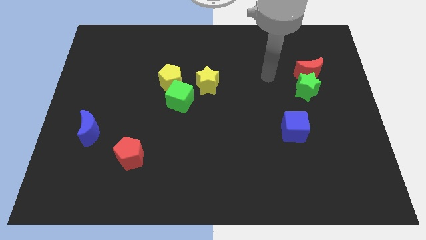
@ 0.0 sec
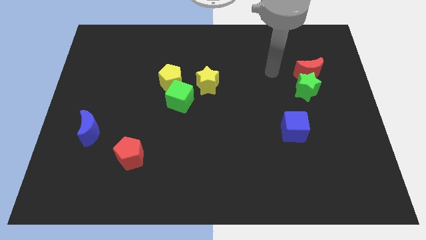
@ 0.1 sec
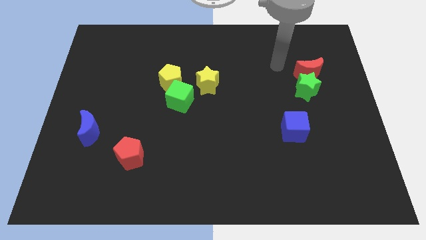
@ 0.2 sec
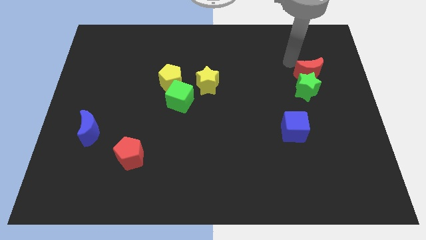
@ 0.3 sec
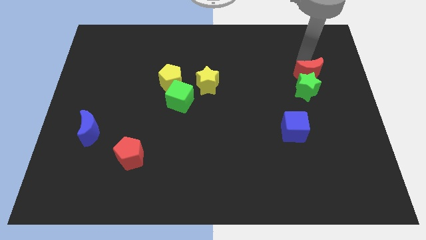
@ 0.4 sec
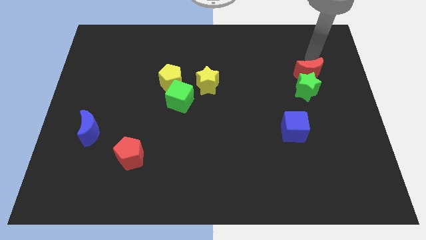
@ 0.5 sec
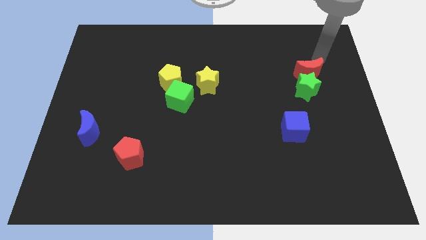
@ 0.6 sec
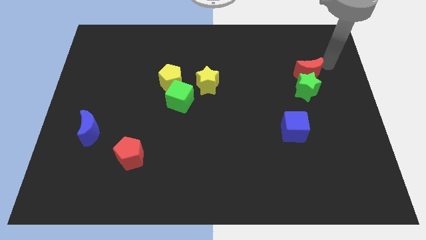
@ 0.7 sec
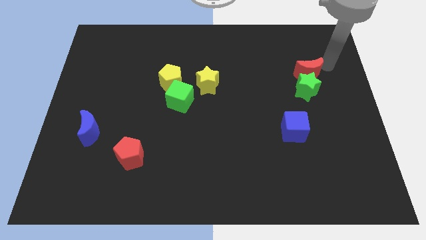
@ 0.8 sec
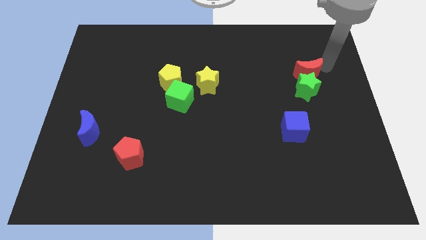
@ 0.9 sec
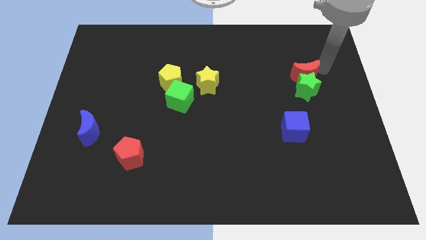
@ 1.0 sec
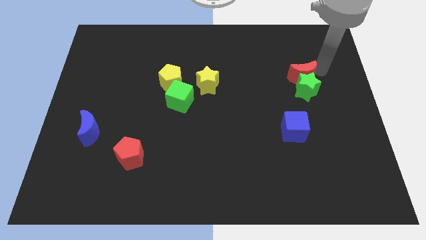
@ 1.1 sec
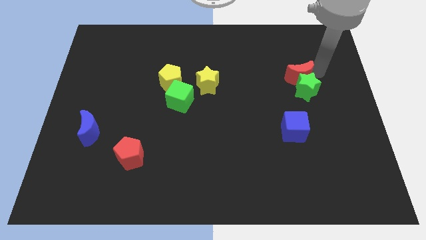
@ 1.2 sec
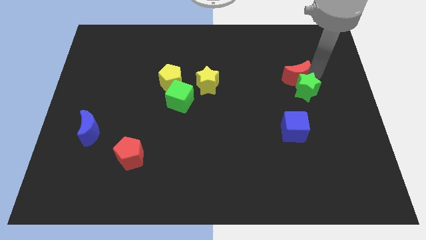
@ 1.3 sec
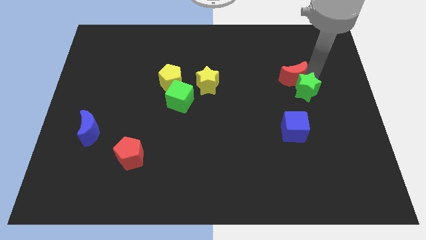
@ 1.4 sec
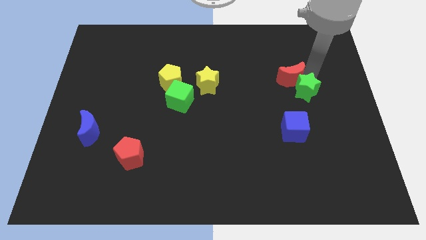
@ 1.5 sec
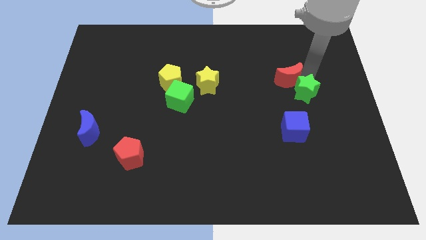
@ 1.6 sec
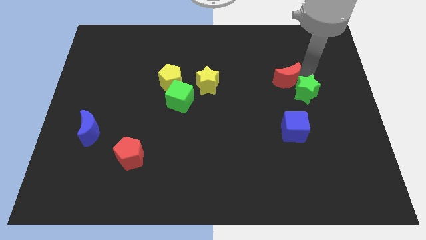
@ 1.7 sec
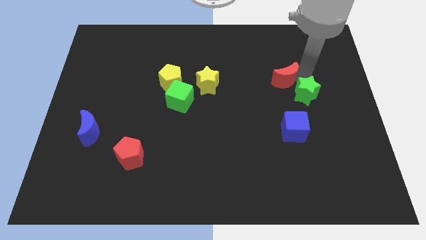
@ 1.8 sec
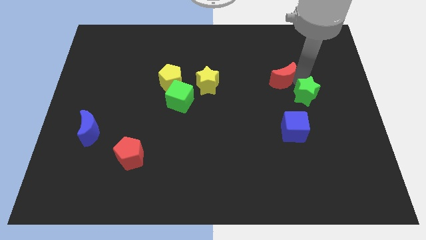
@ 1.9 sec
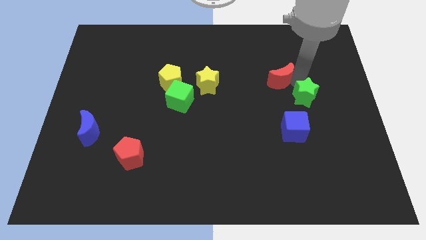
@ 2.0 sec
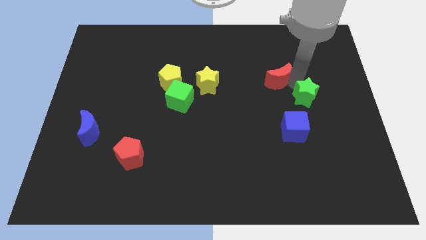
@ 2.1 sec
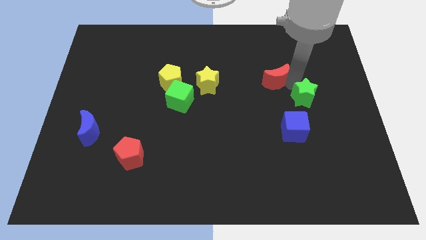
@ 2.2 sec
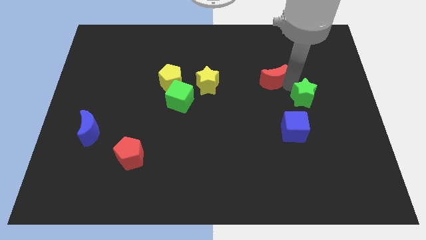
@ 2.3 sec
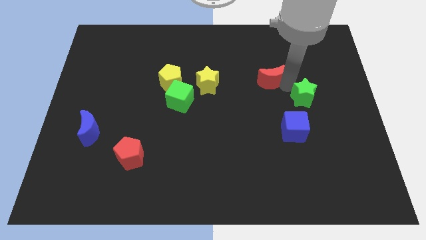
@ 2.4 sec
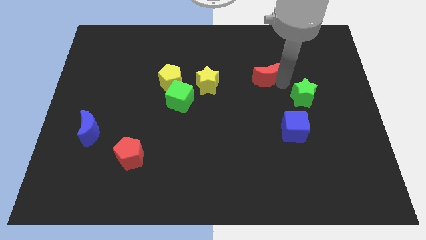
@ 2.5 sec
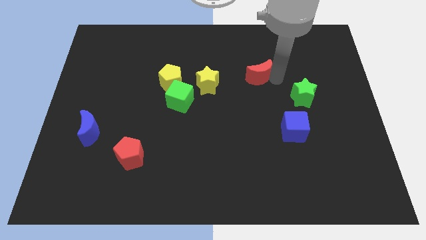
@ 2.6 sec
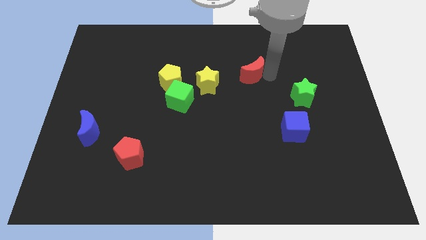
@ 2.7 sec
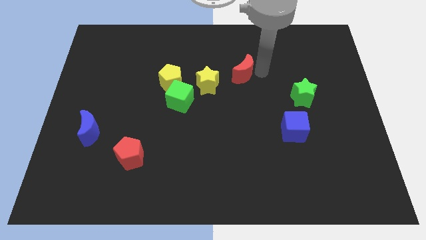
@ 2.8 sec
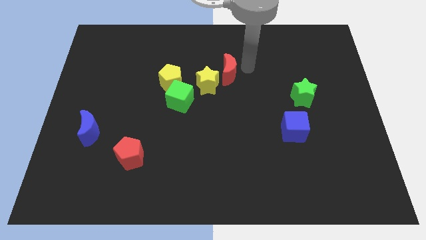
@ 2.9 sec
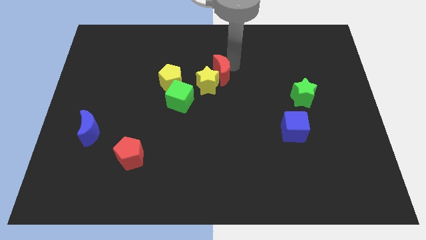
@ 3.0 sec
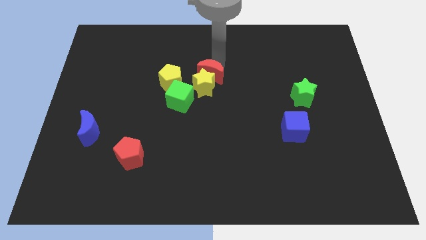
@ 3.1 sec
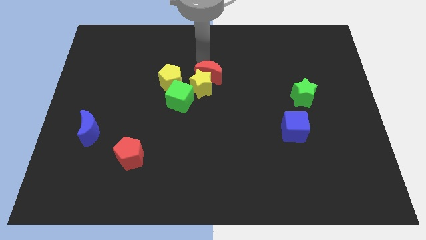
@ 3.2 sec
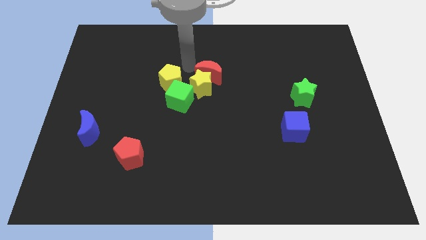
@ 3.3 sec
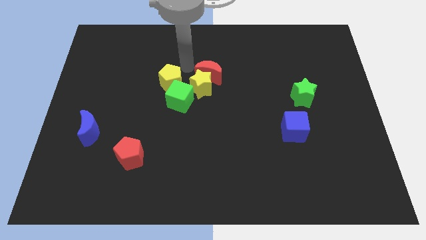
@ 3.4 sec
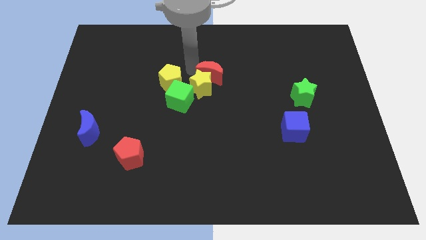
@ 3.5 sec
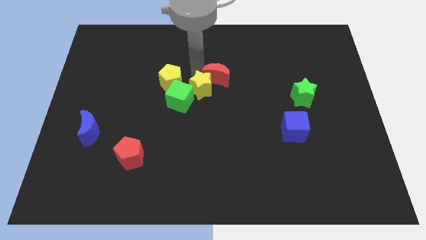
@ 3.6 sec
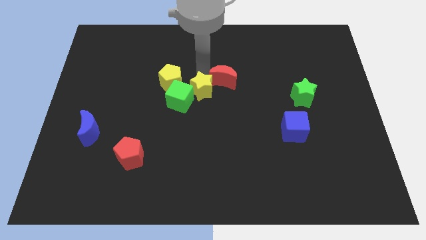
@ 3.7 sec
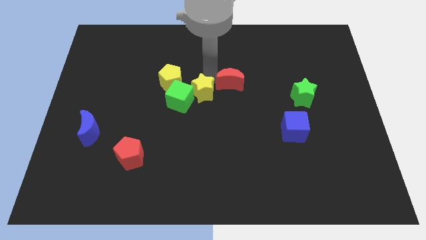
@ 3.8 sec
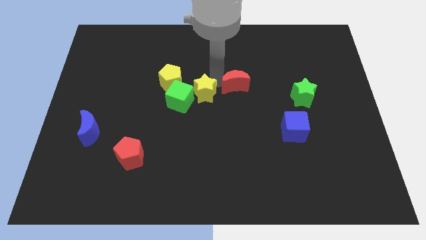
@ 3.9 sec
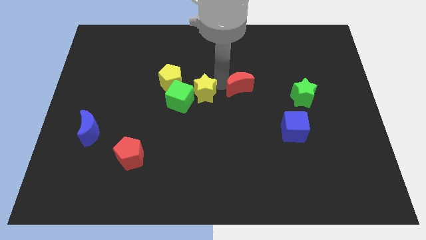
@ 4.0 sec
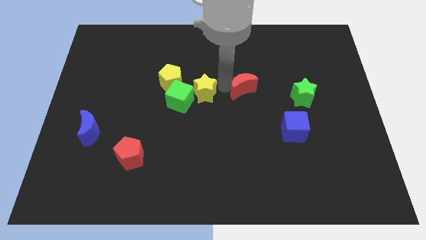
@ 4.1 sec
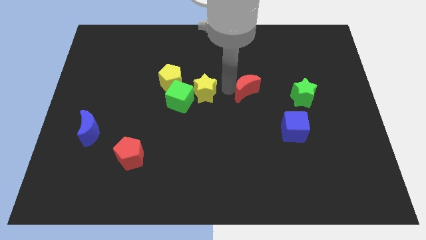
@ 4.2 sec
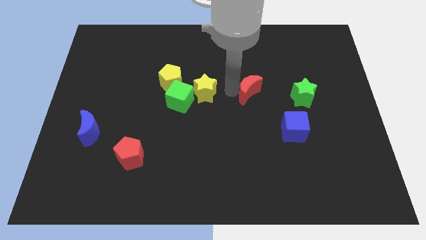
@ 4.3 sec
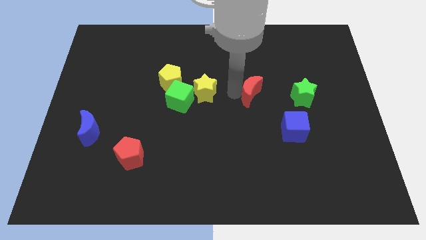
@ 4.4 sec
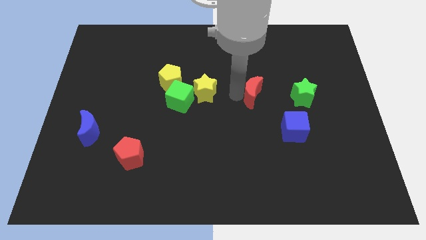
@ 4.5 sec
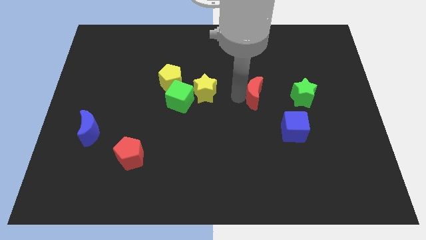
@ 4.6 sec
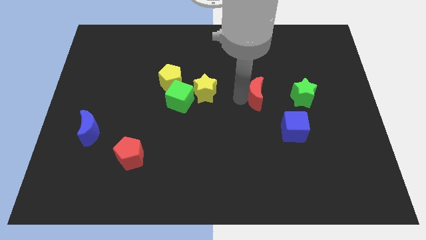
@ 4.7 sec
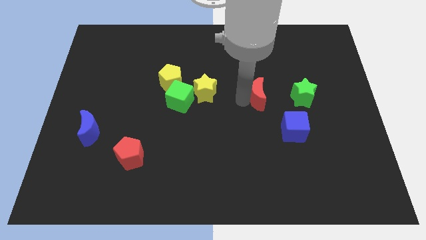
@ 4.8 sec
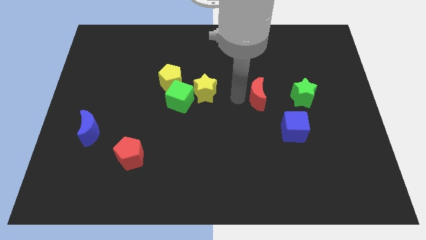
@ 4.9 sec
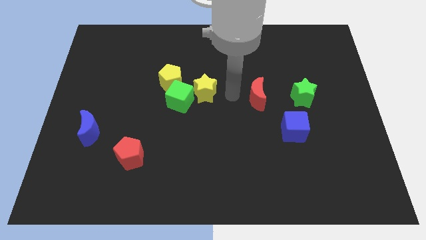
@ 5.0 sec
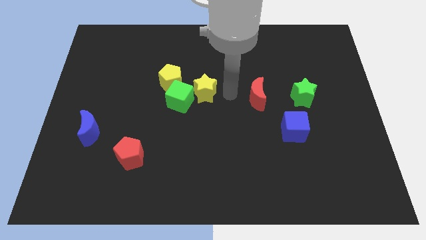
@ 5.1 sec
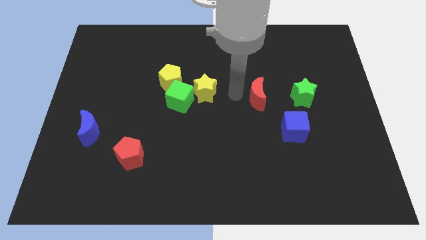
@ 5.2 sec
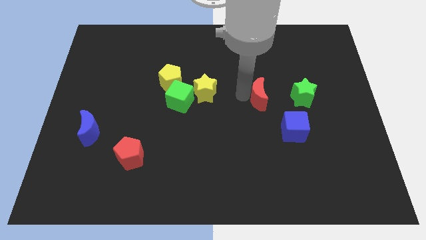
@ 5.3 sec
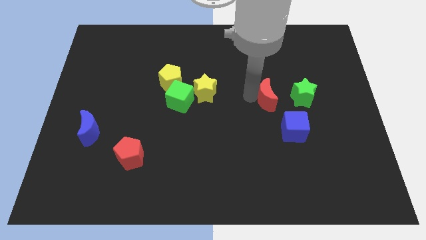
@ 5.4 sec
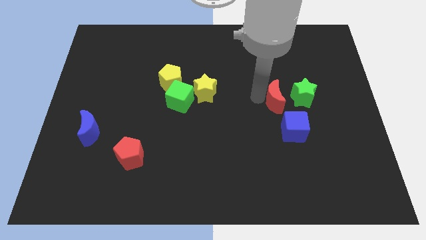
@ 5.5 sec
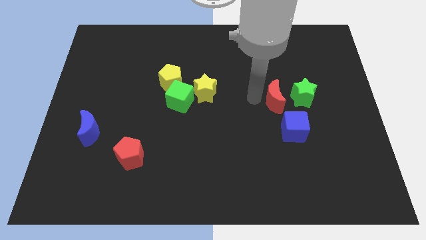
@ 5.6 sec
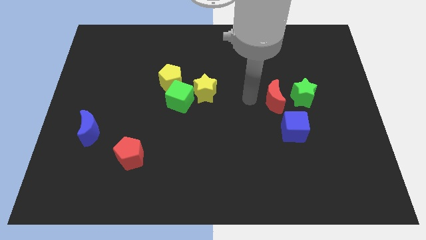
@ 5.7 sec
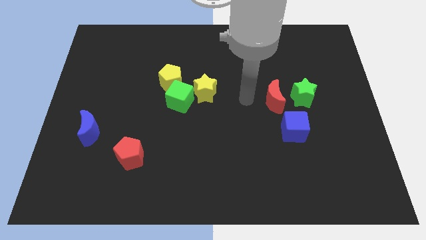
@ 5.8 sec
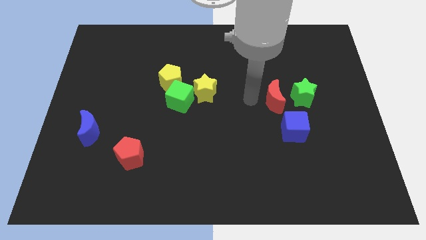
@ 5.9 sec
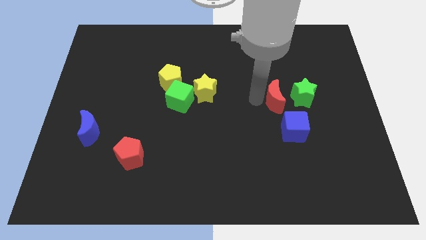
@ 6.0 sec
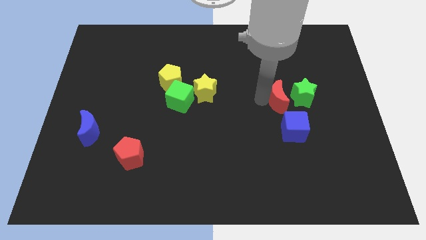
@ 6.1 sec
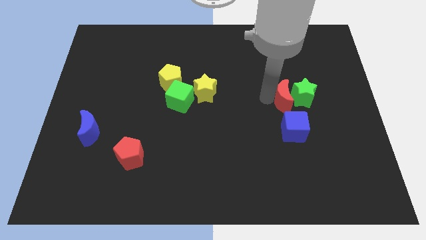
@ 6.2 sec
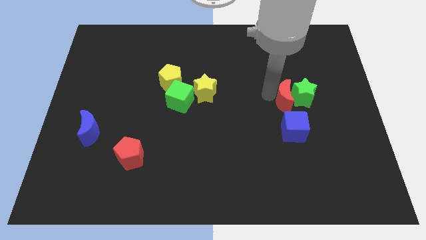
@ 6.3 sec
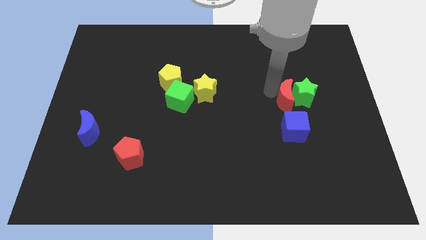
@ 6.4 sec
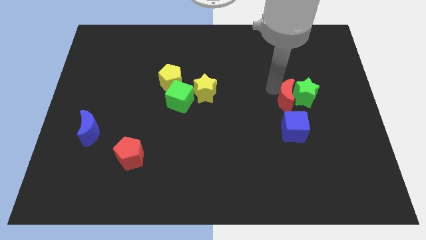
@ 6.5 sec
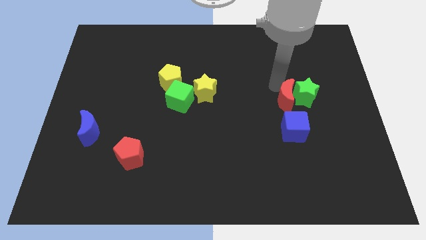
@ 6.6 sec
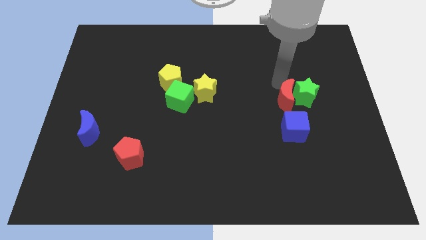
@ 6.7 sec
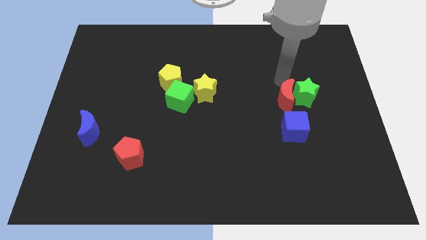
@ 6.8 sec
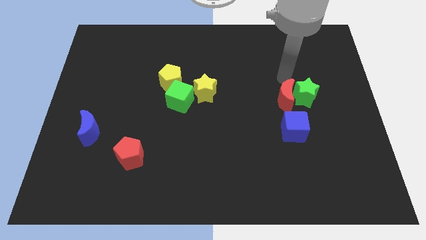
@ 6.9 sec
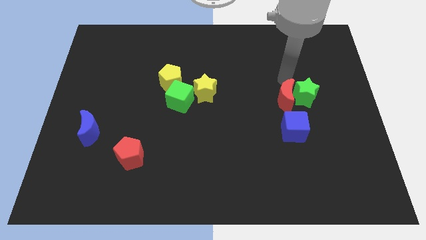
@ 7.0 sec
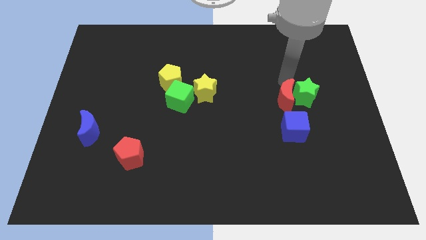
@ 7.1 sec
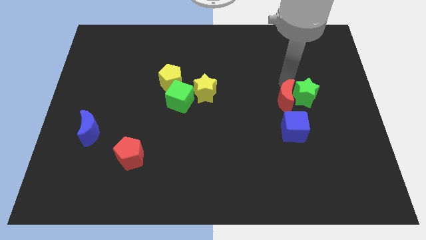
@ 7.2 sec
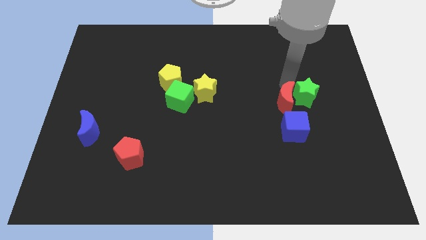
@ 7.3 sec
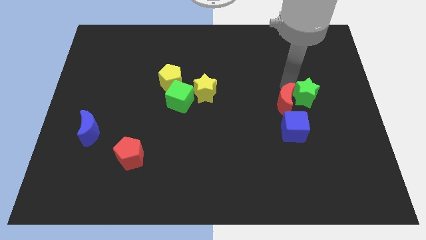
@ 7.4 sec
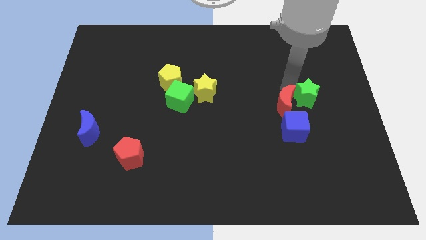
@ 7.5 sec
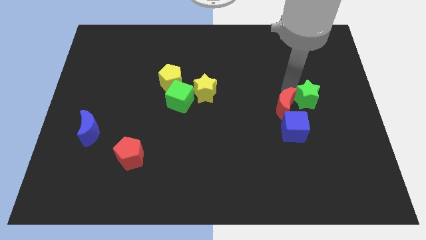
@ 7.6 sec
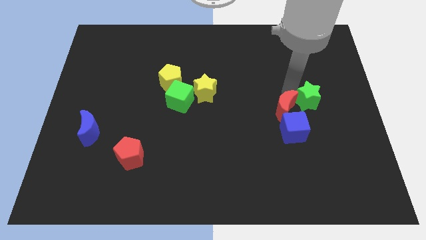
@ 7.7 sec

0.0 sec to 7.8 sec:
move the red moon next to the blue cube
